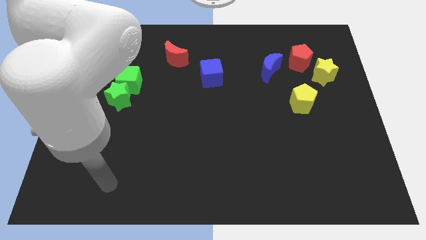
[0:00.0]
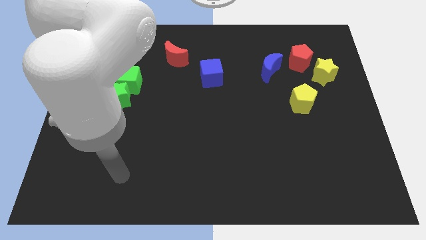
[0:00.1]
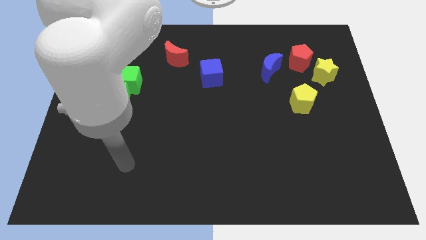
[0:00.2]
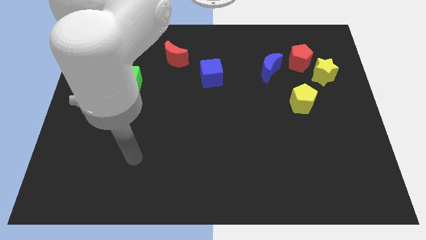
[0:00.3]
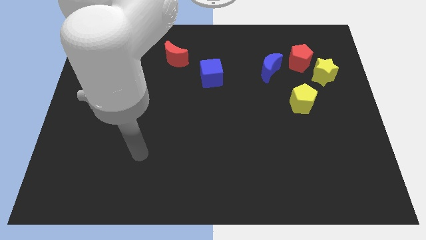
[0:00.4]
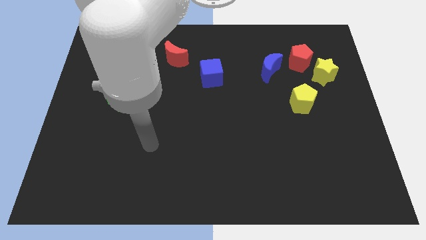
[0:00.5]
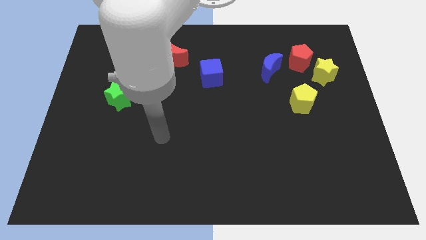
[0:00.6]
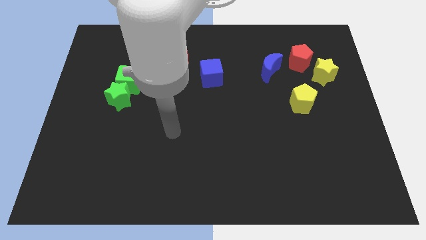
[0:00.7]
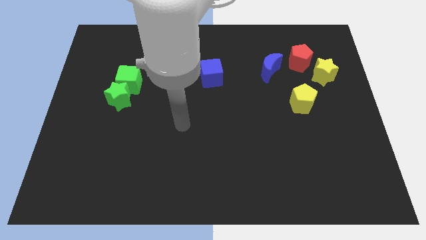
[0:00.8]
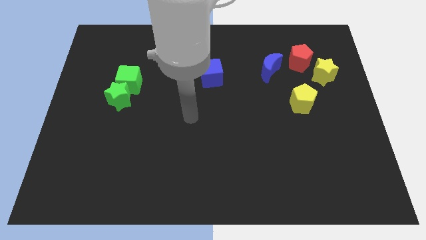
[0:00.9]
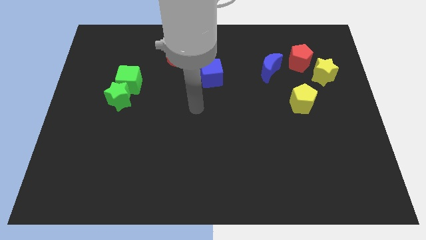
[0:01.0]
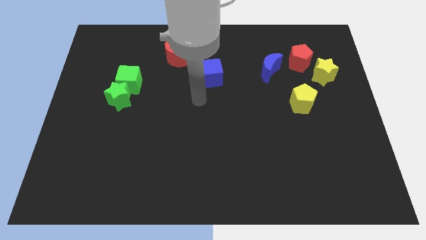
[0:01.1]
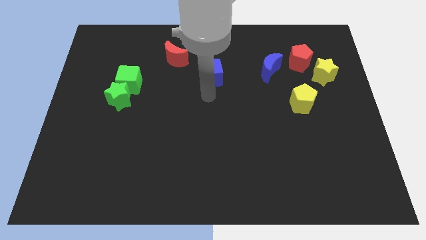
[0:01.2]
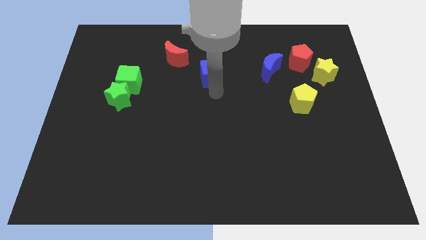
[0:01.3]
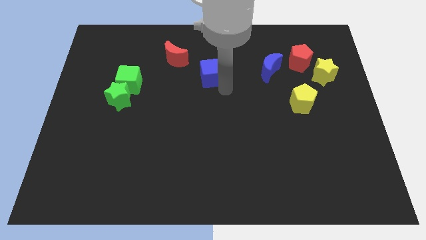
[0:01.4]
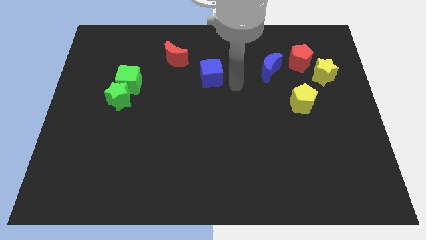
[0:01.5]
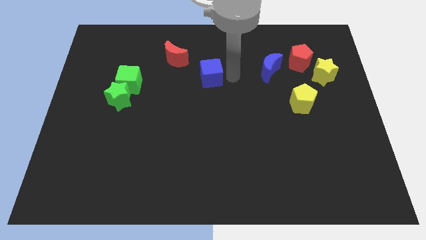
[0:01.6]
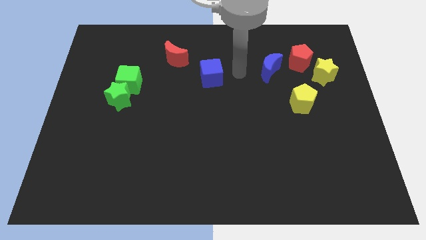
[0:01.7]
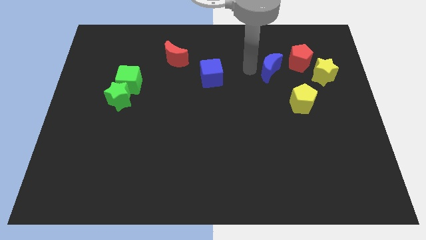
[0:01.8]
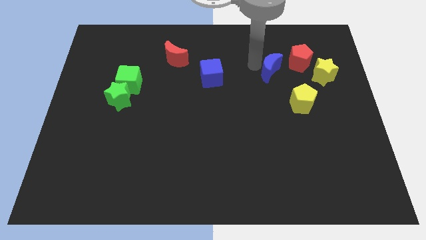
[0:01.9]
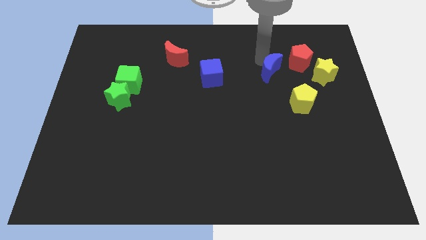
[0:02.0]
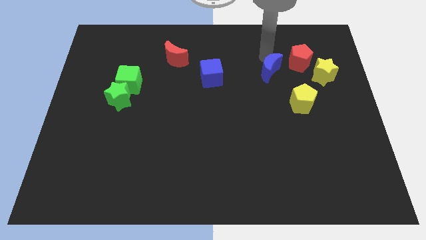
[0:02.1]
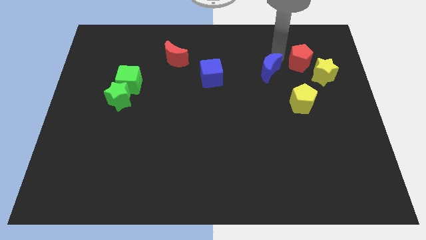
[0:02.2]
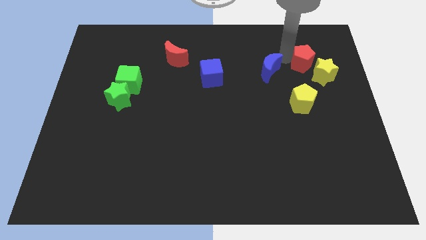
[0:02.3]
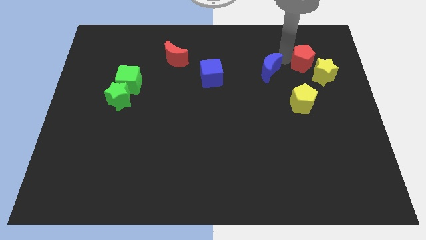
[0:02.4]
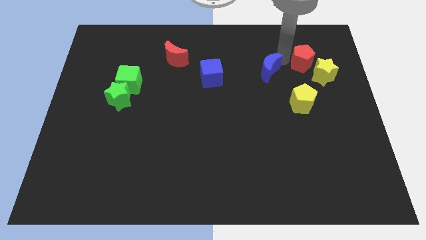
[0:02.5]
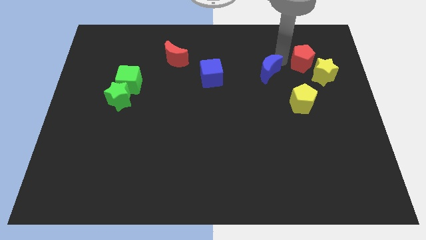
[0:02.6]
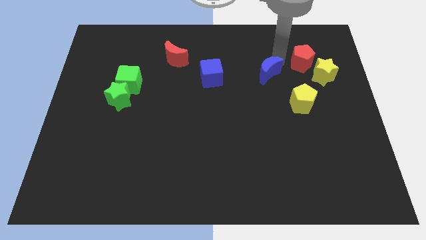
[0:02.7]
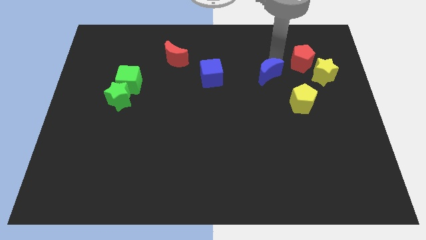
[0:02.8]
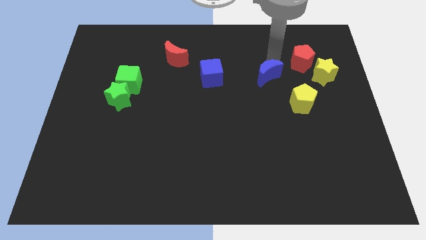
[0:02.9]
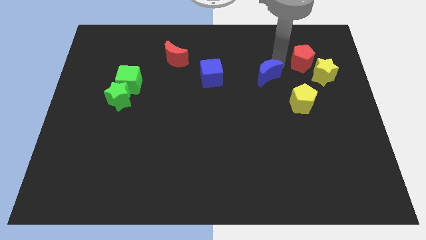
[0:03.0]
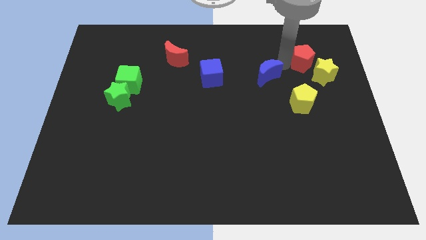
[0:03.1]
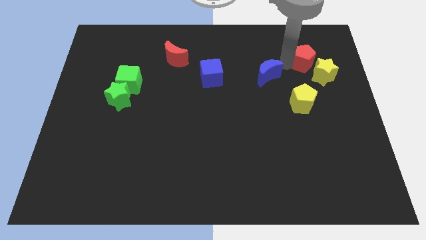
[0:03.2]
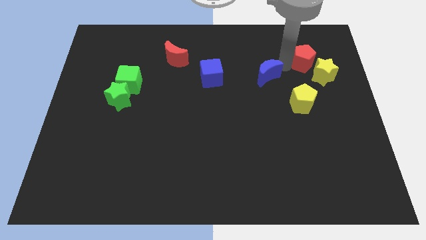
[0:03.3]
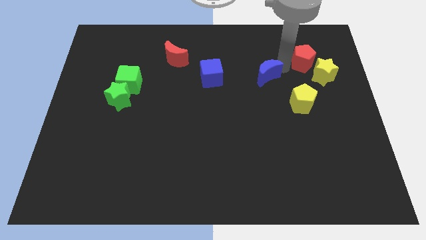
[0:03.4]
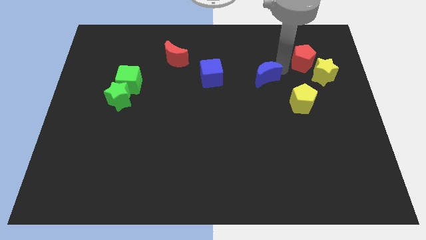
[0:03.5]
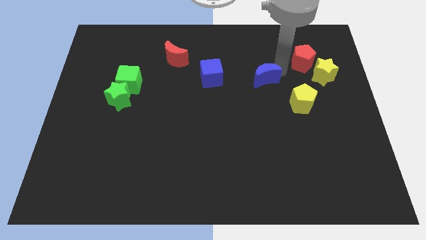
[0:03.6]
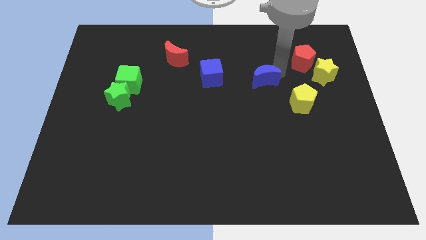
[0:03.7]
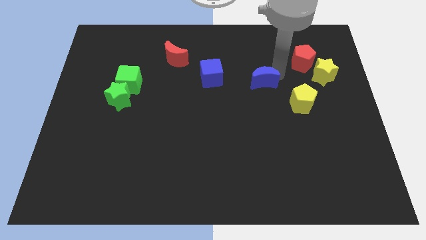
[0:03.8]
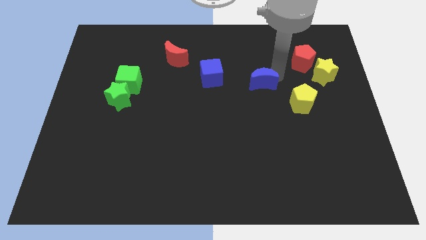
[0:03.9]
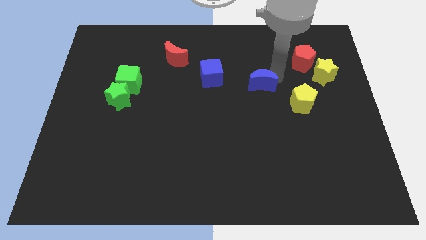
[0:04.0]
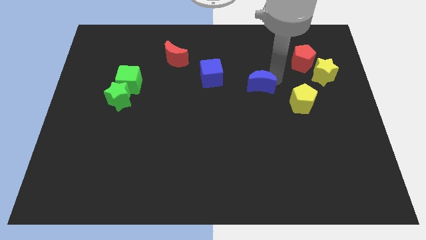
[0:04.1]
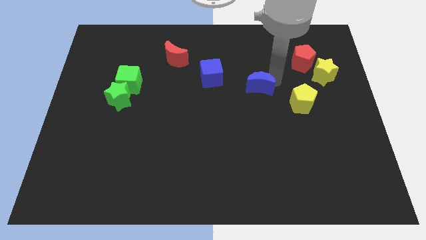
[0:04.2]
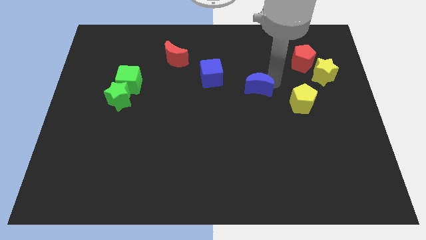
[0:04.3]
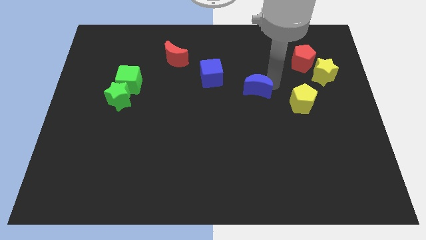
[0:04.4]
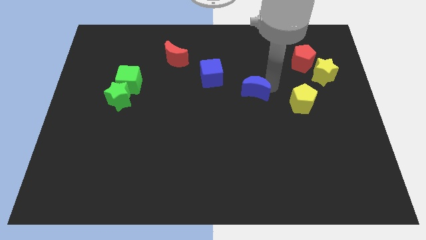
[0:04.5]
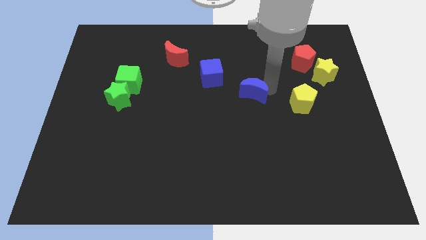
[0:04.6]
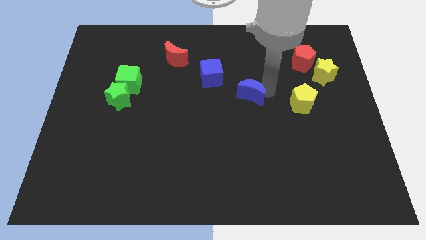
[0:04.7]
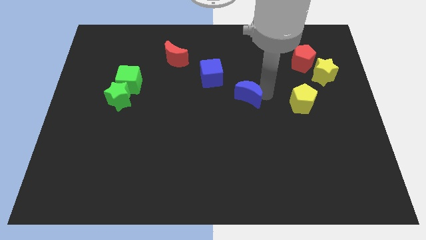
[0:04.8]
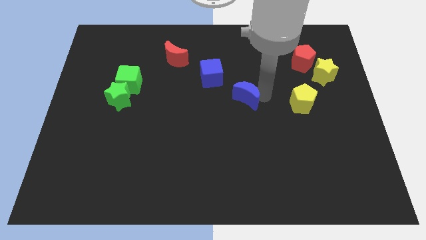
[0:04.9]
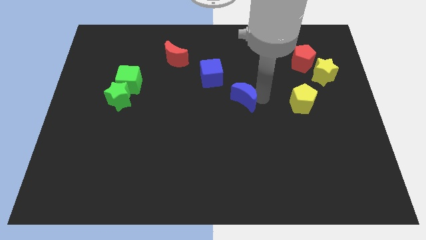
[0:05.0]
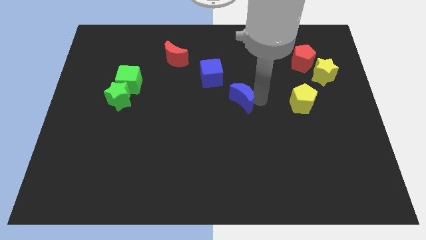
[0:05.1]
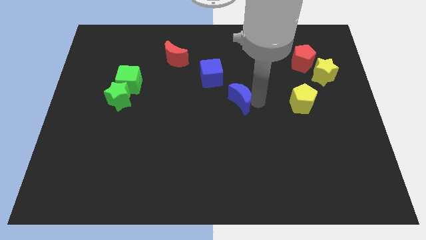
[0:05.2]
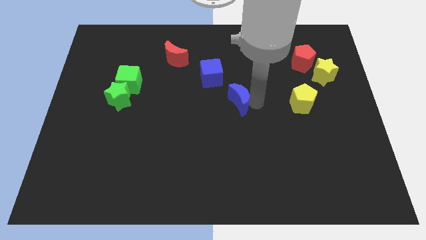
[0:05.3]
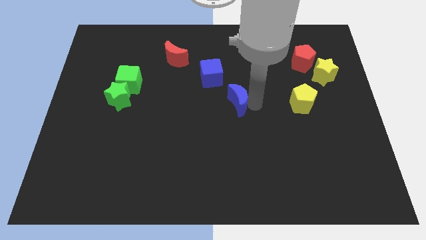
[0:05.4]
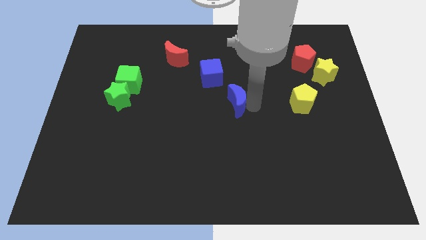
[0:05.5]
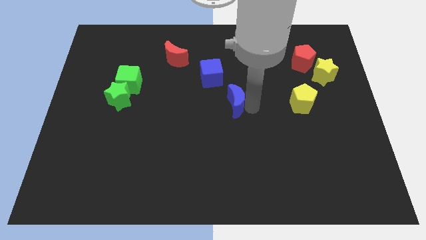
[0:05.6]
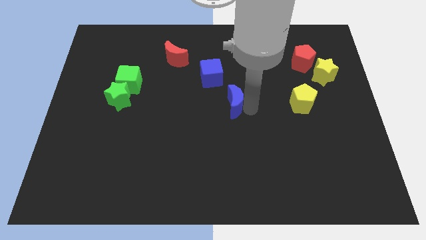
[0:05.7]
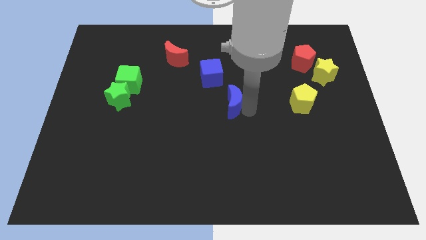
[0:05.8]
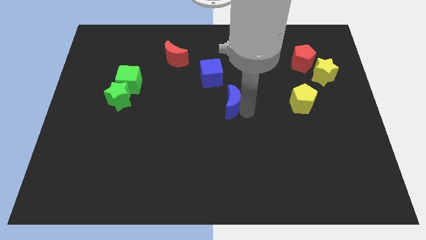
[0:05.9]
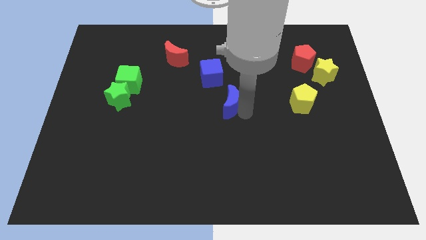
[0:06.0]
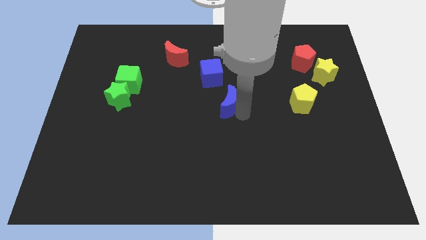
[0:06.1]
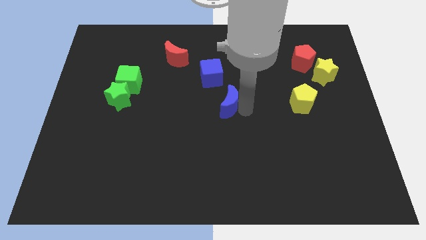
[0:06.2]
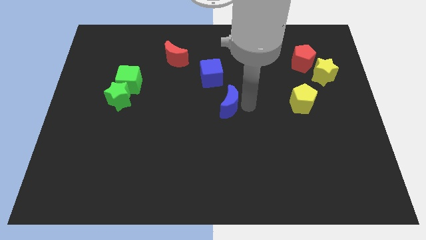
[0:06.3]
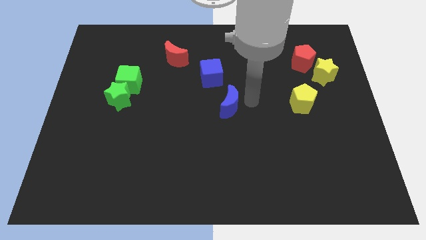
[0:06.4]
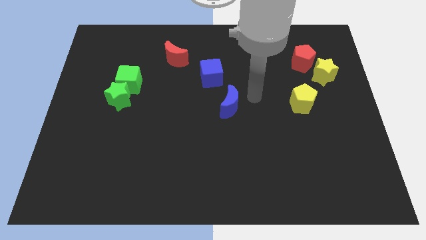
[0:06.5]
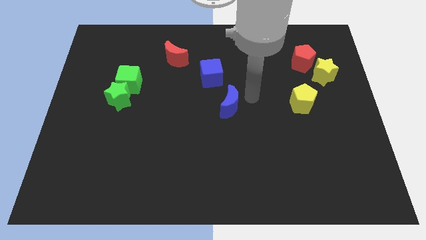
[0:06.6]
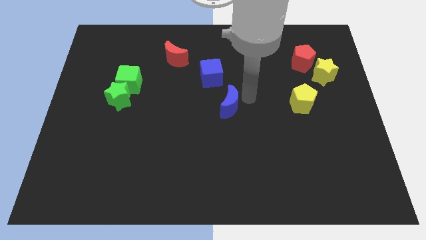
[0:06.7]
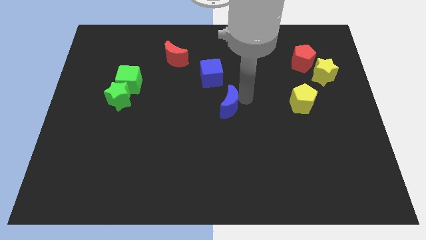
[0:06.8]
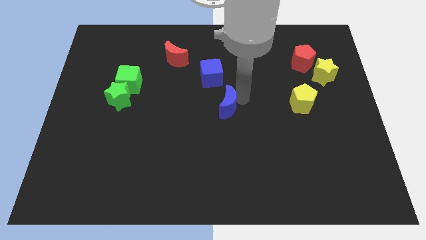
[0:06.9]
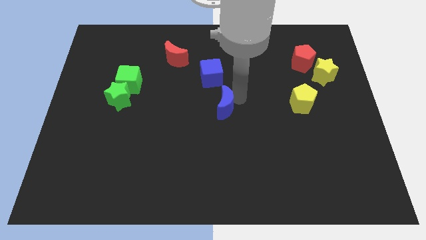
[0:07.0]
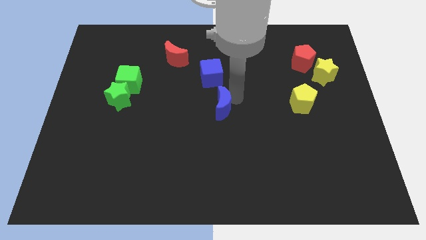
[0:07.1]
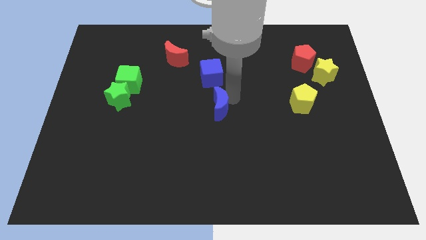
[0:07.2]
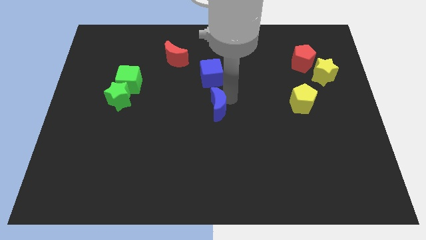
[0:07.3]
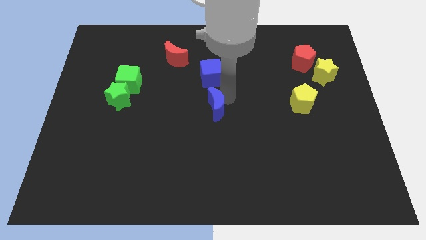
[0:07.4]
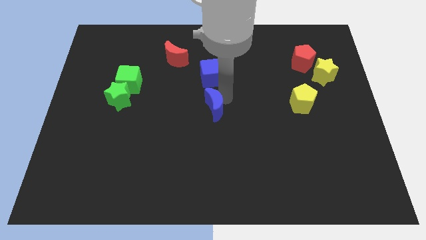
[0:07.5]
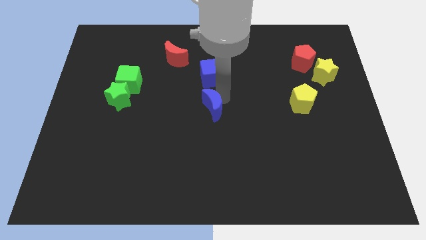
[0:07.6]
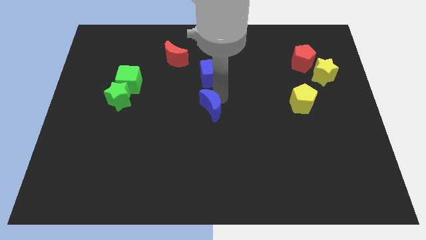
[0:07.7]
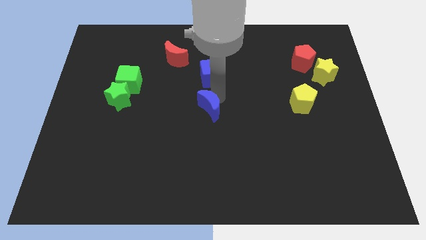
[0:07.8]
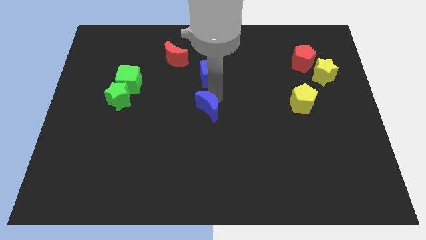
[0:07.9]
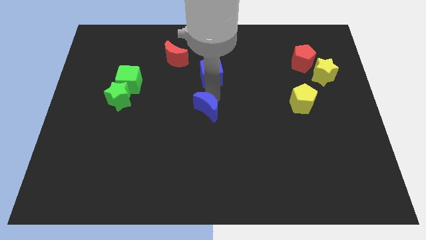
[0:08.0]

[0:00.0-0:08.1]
push the blue moon down and left

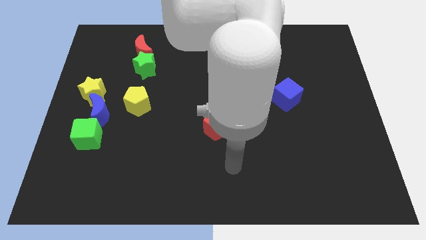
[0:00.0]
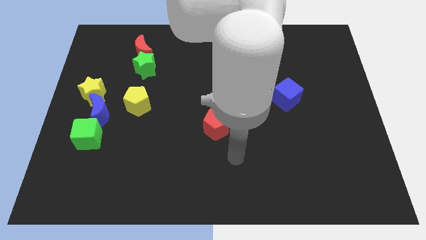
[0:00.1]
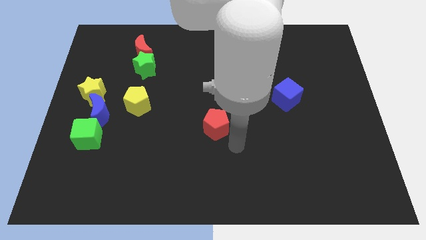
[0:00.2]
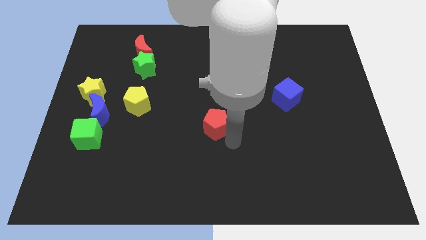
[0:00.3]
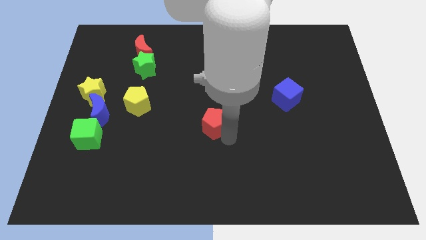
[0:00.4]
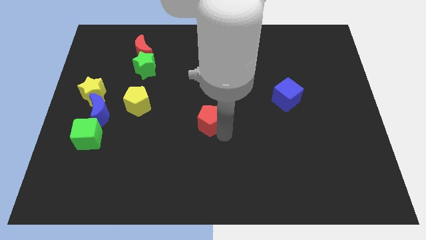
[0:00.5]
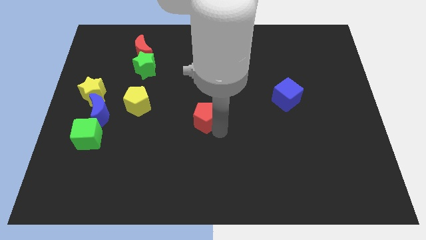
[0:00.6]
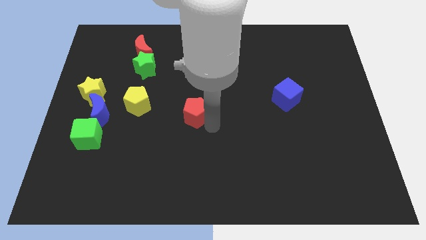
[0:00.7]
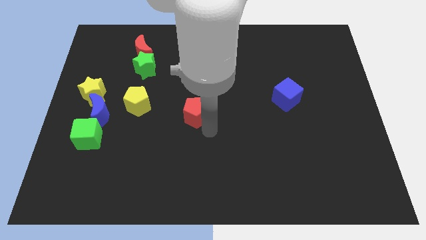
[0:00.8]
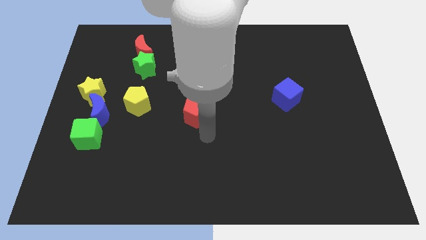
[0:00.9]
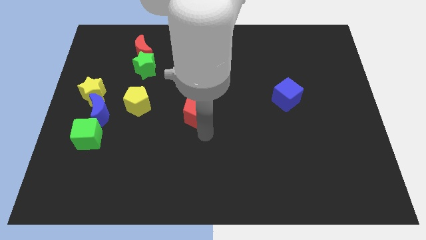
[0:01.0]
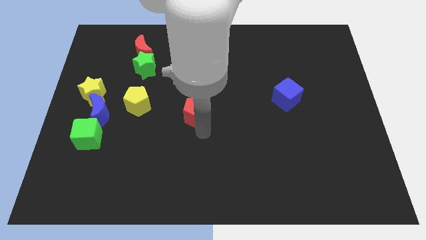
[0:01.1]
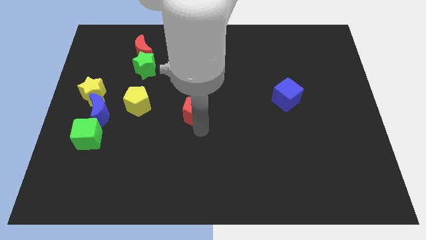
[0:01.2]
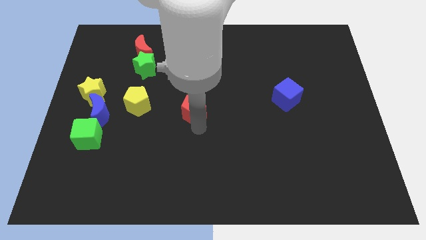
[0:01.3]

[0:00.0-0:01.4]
push the red pentagon upwards and to the left a bit
